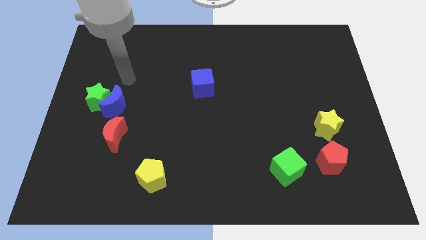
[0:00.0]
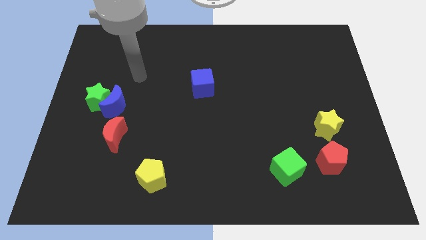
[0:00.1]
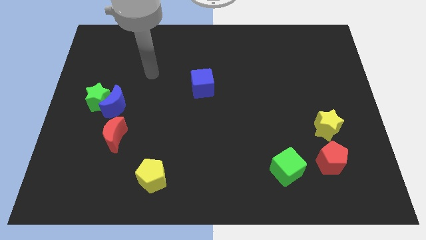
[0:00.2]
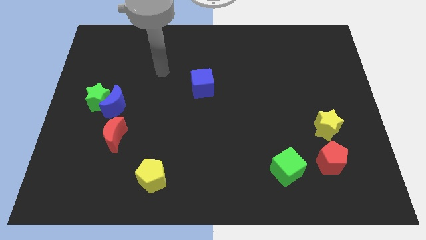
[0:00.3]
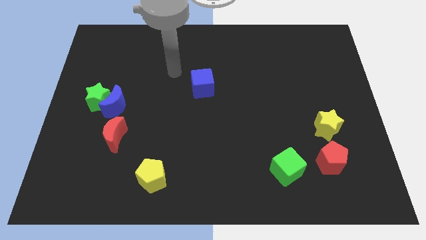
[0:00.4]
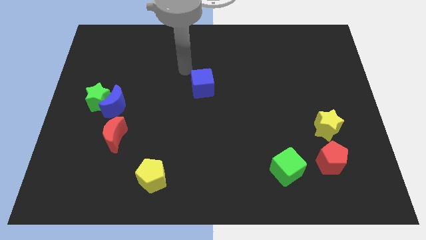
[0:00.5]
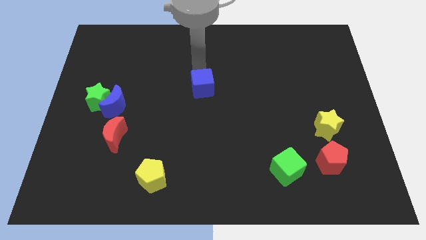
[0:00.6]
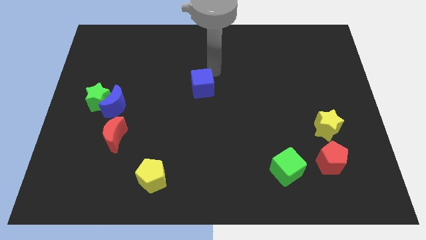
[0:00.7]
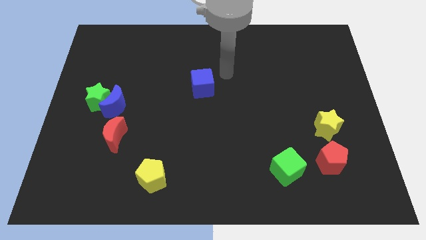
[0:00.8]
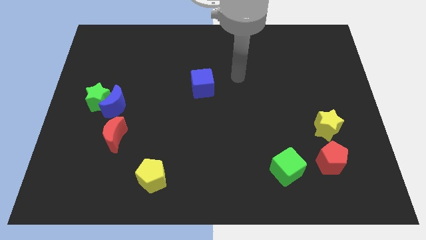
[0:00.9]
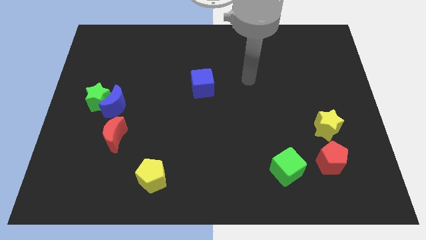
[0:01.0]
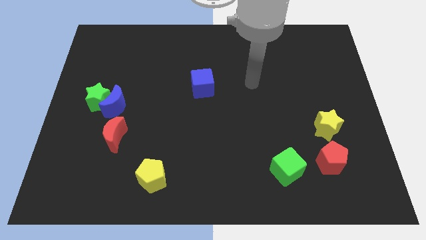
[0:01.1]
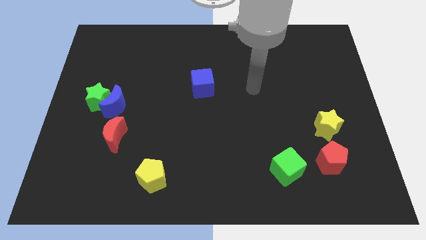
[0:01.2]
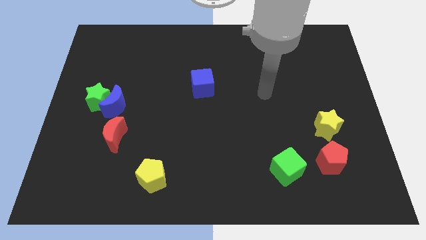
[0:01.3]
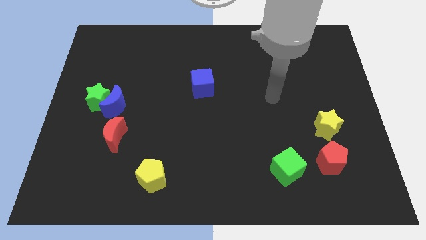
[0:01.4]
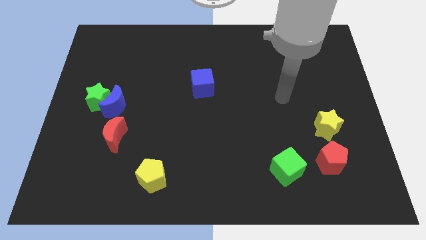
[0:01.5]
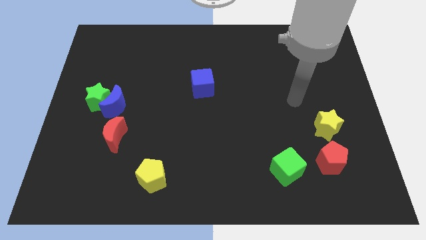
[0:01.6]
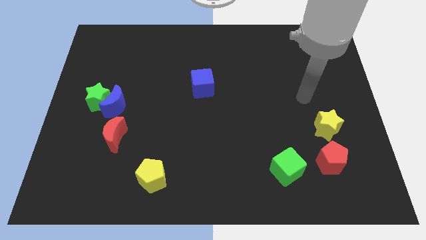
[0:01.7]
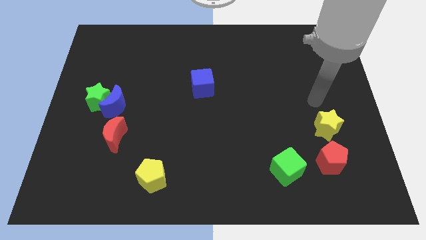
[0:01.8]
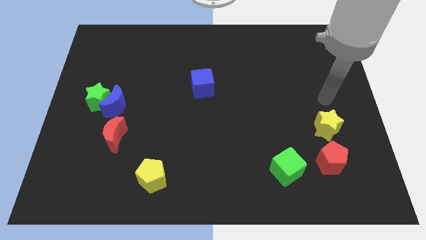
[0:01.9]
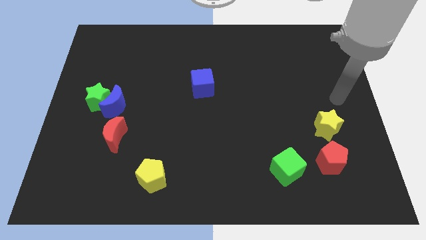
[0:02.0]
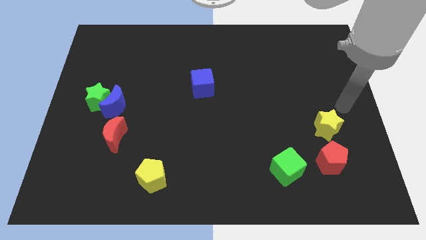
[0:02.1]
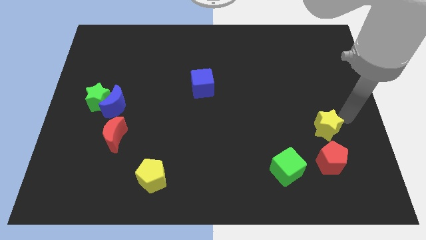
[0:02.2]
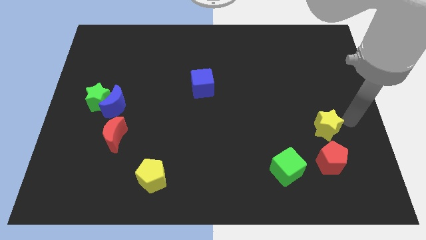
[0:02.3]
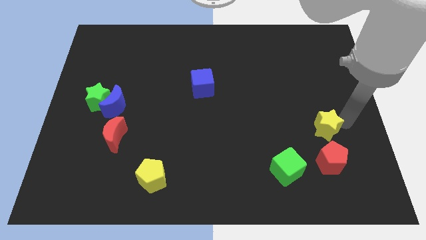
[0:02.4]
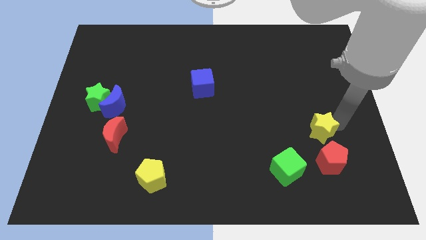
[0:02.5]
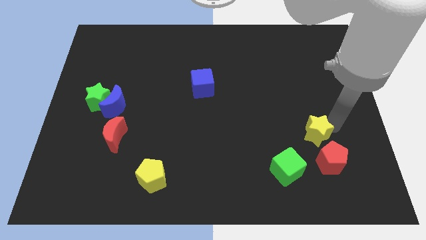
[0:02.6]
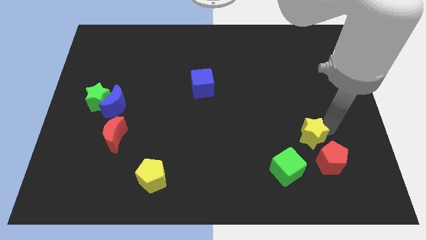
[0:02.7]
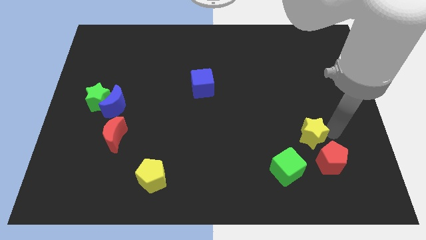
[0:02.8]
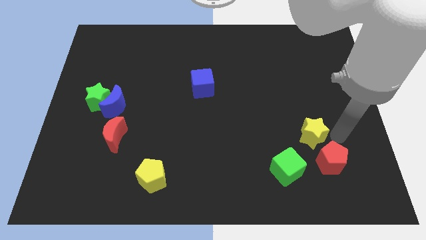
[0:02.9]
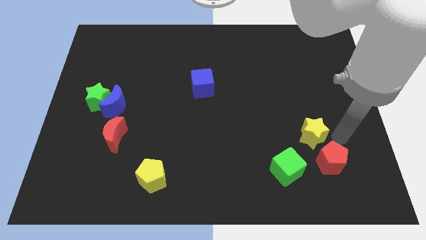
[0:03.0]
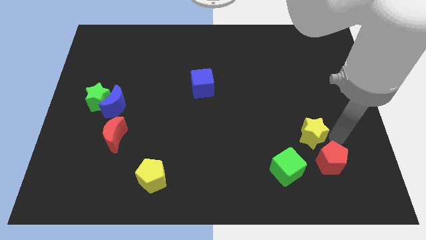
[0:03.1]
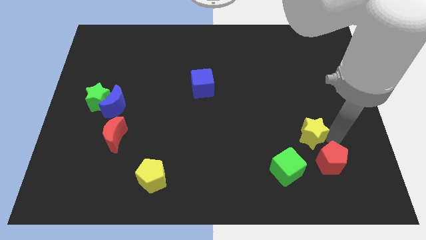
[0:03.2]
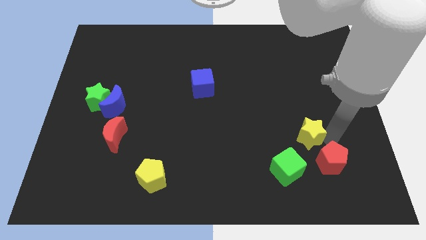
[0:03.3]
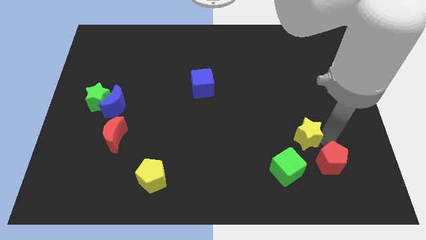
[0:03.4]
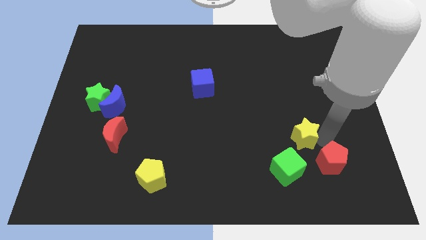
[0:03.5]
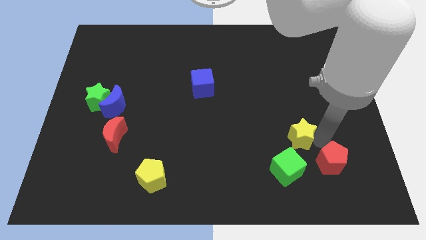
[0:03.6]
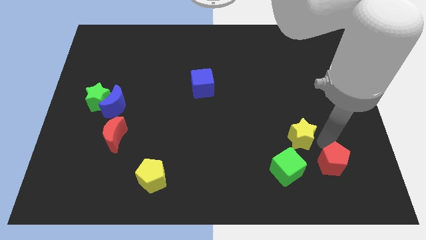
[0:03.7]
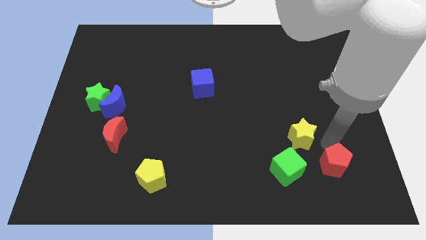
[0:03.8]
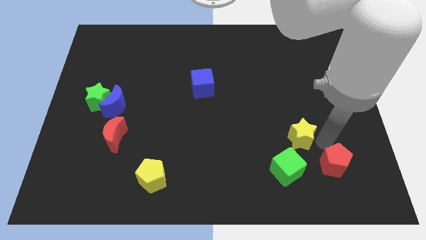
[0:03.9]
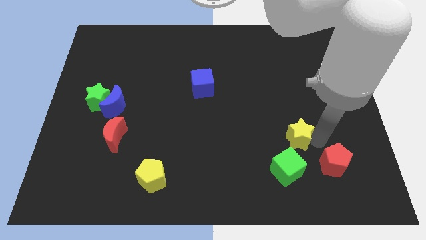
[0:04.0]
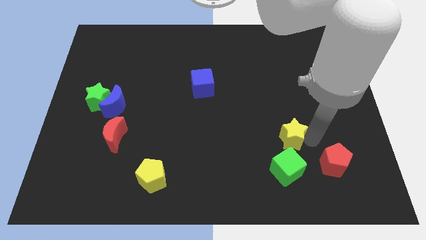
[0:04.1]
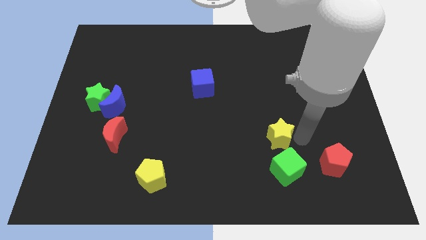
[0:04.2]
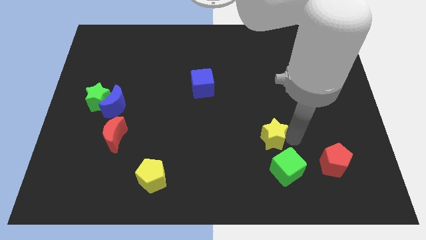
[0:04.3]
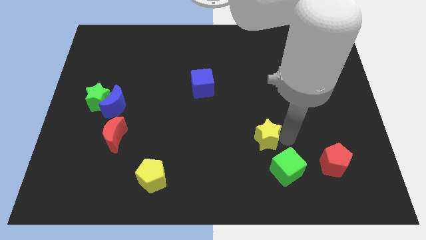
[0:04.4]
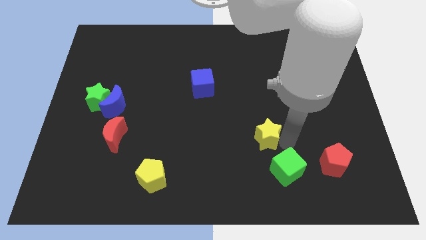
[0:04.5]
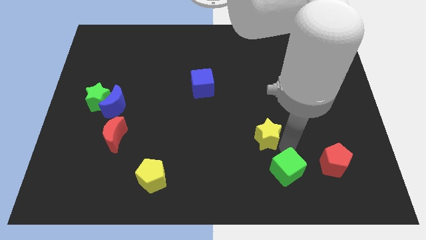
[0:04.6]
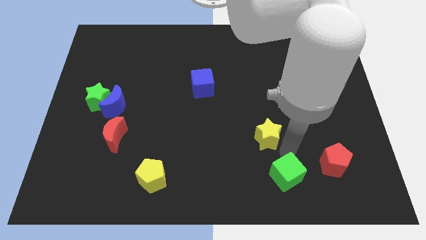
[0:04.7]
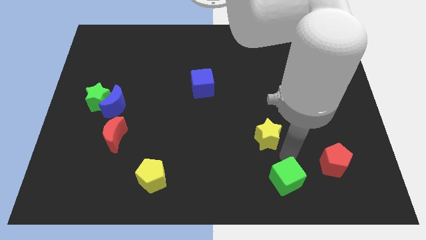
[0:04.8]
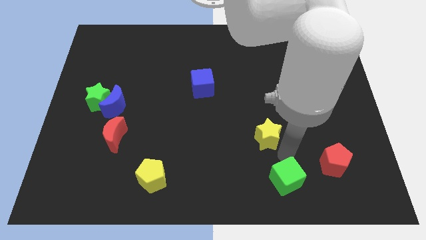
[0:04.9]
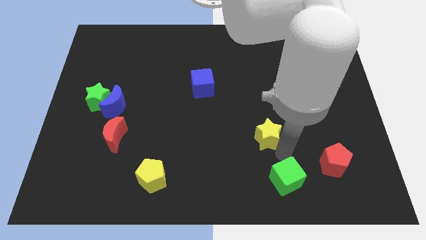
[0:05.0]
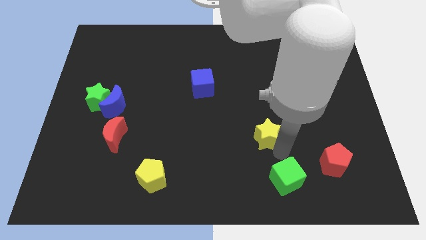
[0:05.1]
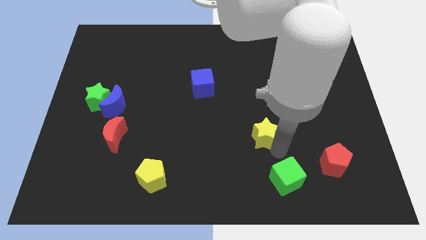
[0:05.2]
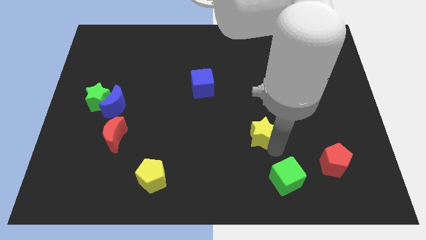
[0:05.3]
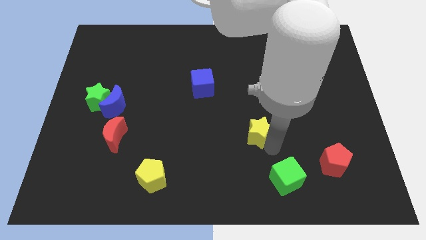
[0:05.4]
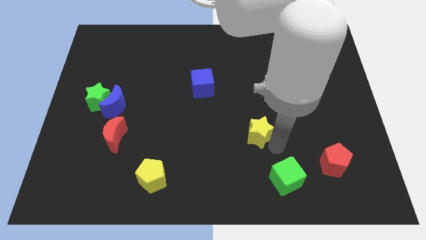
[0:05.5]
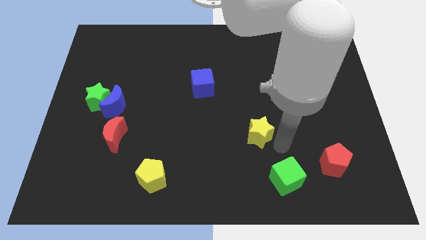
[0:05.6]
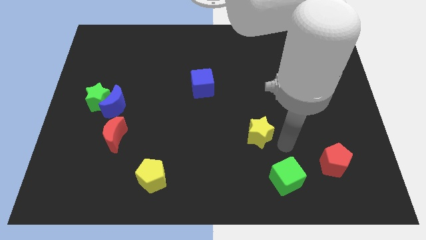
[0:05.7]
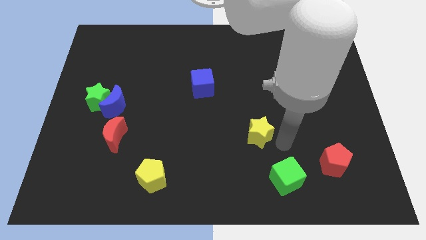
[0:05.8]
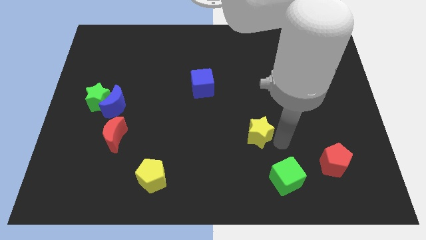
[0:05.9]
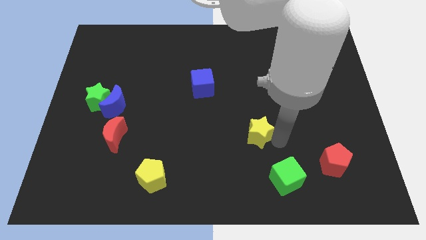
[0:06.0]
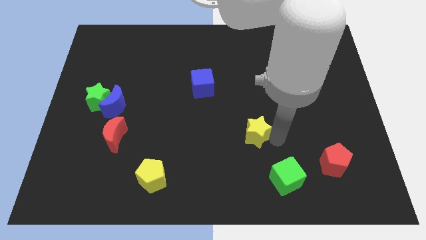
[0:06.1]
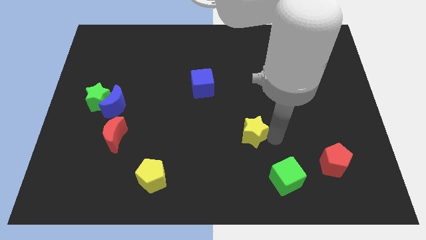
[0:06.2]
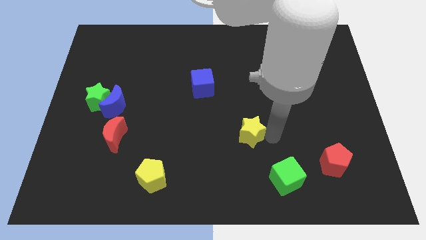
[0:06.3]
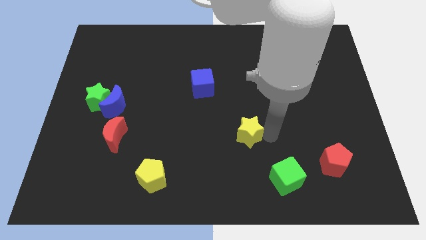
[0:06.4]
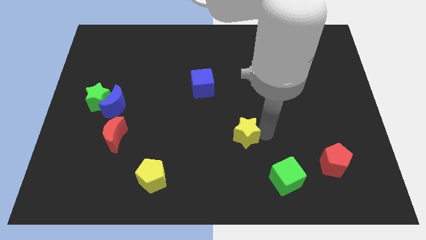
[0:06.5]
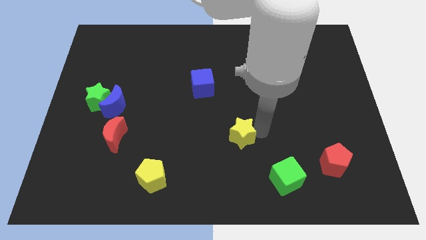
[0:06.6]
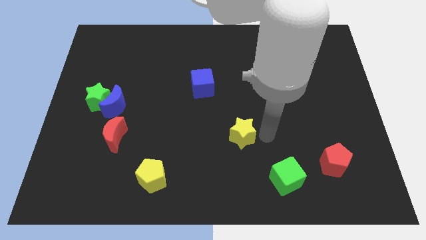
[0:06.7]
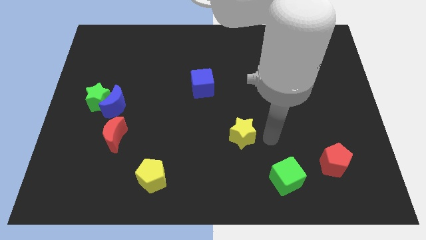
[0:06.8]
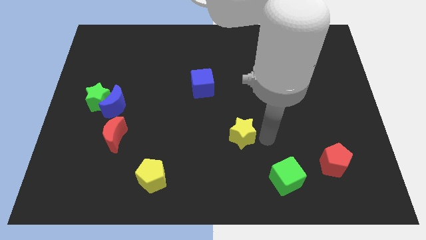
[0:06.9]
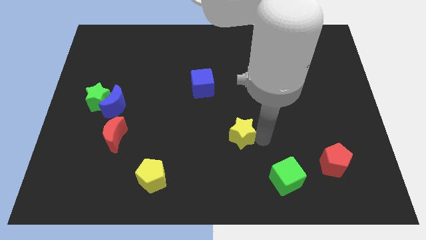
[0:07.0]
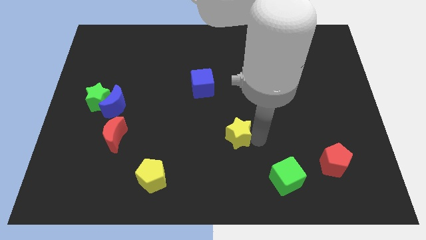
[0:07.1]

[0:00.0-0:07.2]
move the yellow star to the left

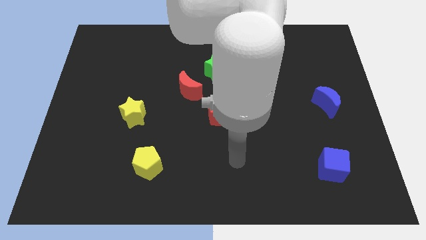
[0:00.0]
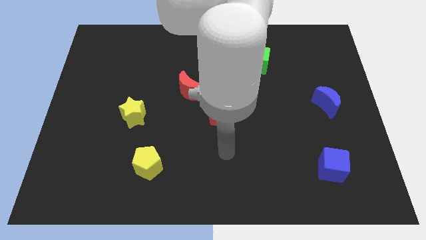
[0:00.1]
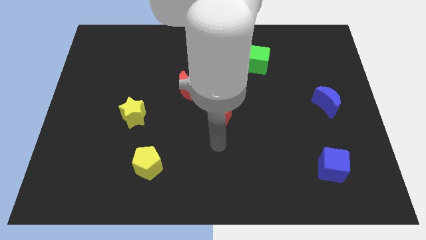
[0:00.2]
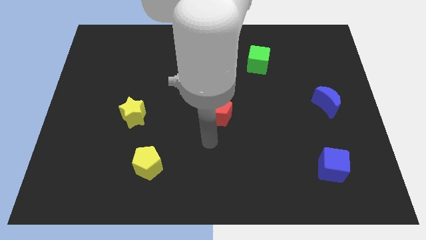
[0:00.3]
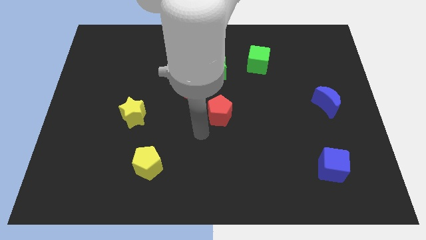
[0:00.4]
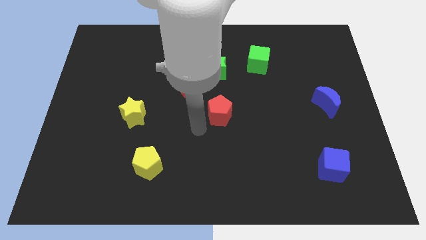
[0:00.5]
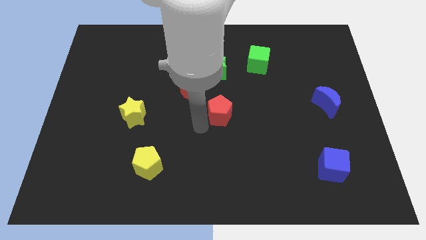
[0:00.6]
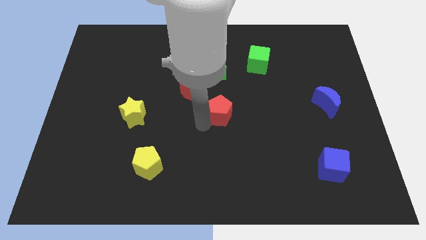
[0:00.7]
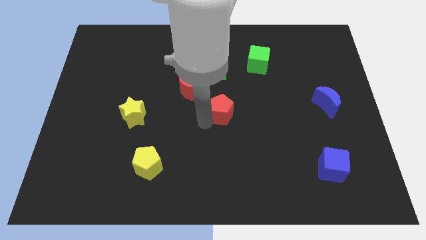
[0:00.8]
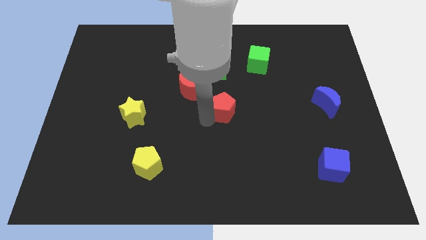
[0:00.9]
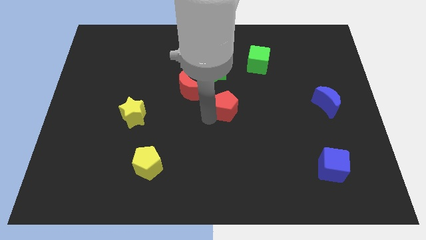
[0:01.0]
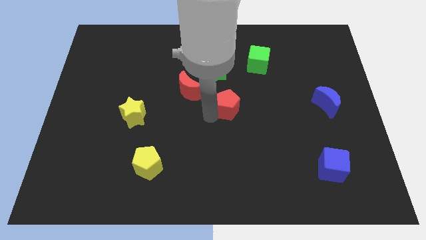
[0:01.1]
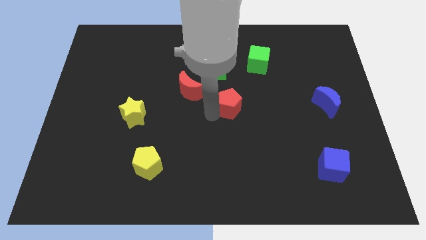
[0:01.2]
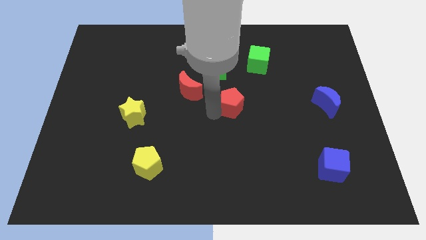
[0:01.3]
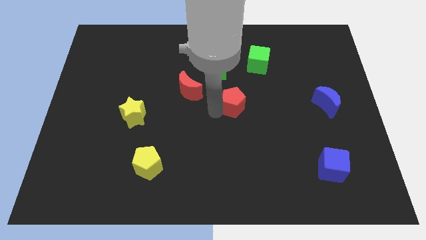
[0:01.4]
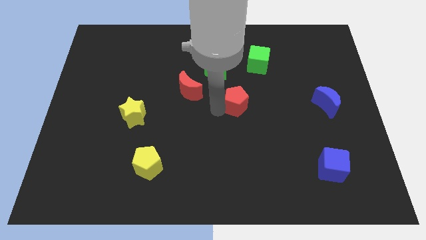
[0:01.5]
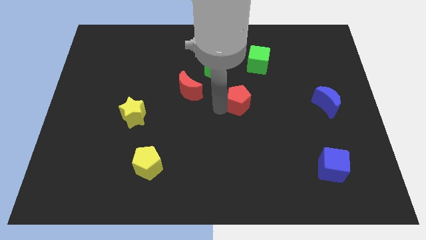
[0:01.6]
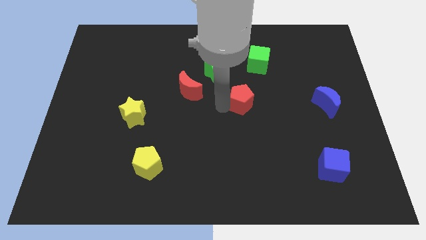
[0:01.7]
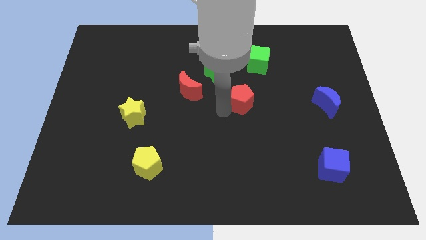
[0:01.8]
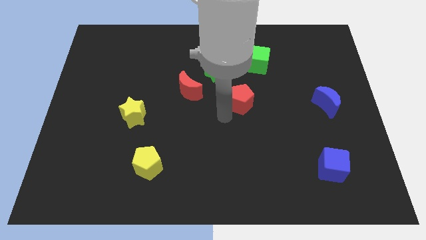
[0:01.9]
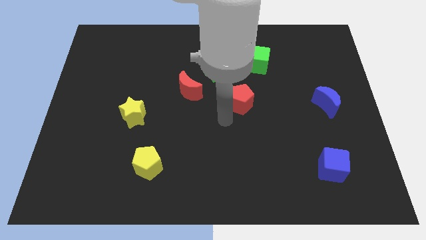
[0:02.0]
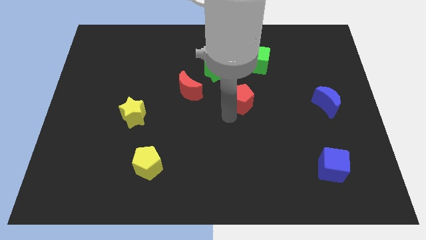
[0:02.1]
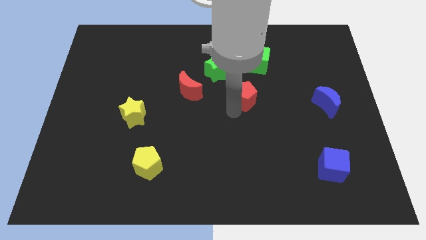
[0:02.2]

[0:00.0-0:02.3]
move the red pentagon a bit diagonally upwards and right
